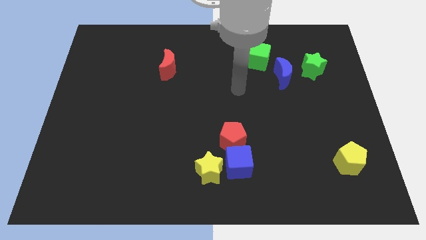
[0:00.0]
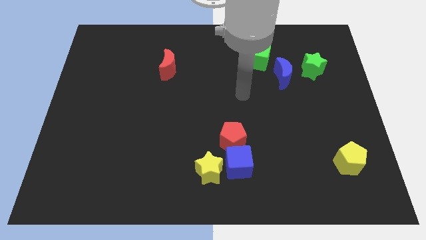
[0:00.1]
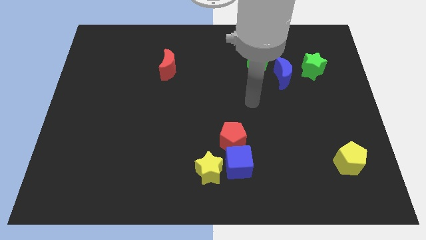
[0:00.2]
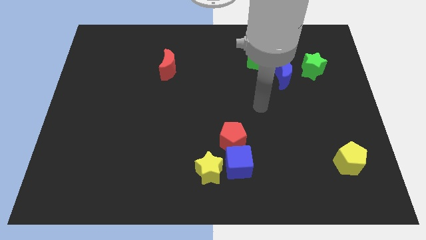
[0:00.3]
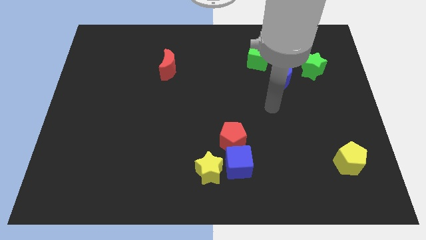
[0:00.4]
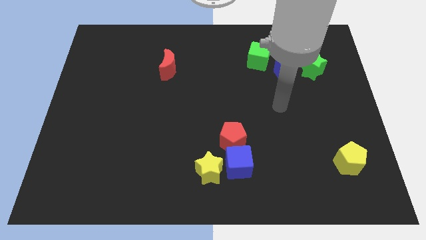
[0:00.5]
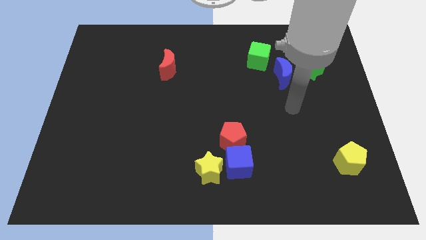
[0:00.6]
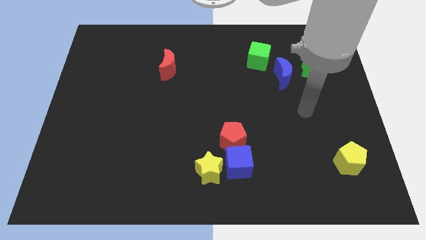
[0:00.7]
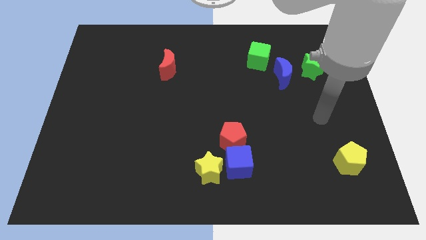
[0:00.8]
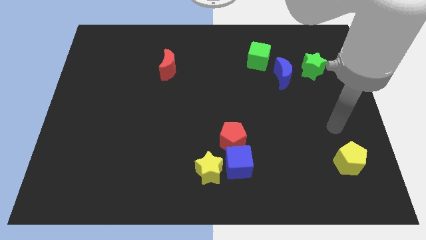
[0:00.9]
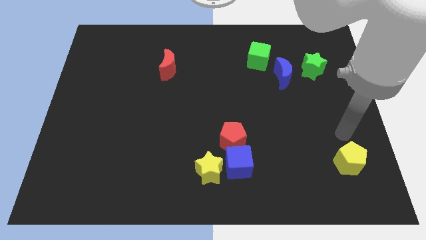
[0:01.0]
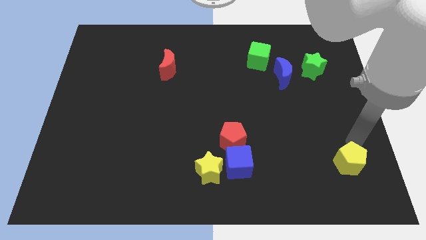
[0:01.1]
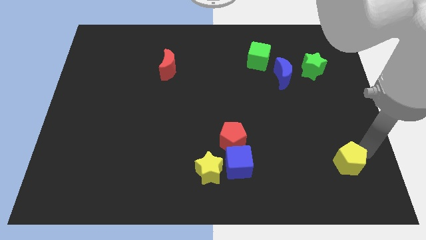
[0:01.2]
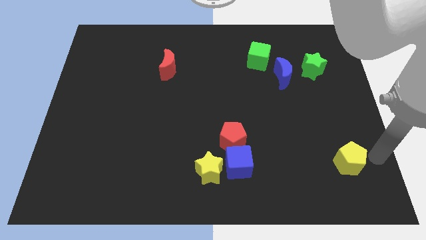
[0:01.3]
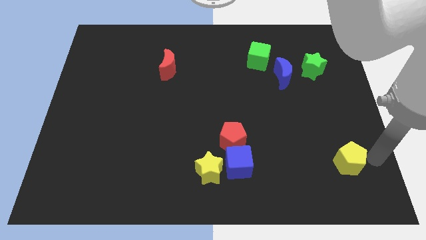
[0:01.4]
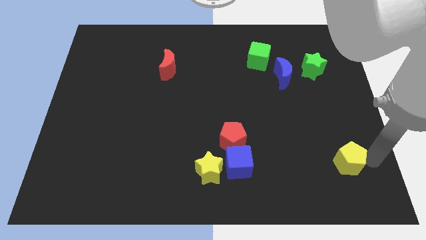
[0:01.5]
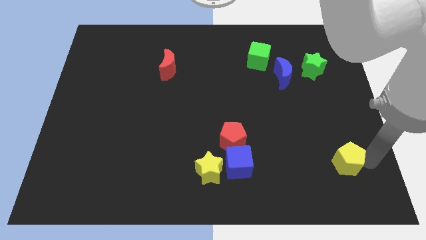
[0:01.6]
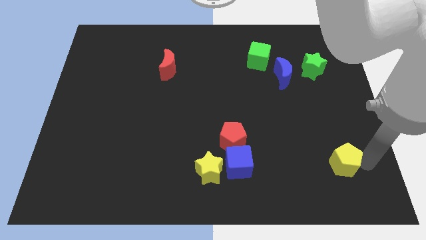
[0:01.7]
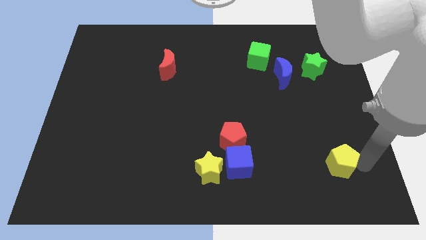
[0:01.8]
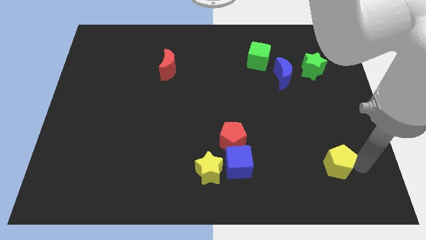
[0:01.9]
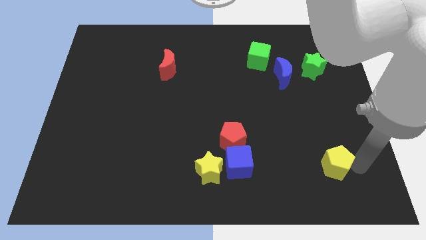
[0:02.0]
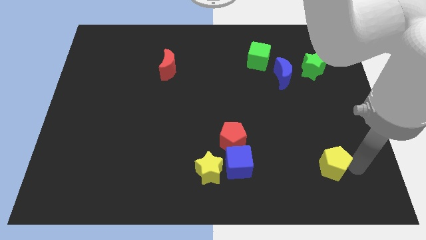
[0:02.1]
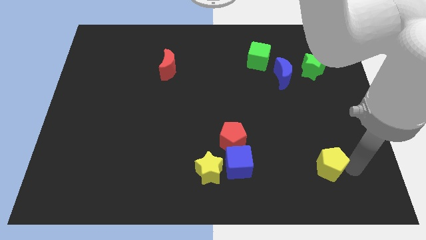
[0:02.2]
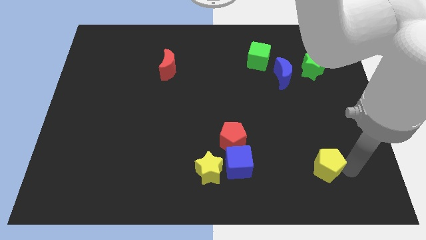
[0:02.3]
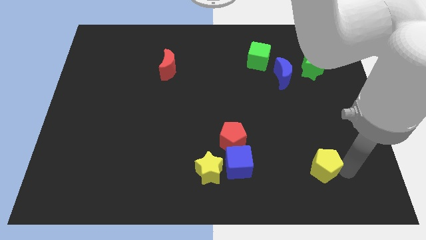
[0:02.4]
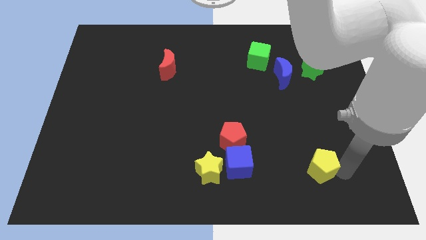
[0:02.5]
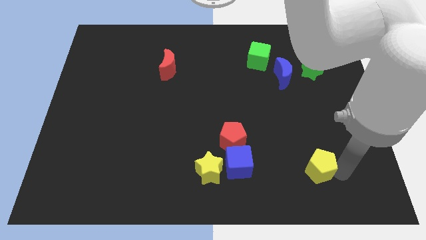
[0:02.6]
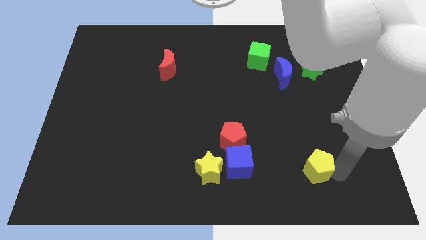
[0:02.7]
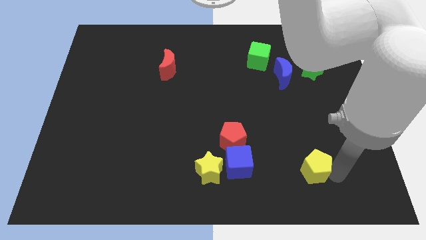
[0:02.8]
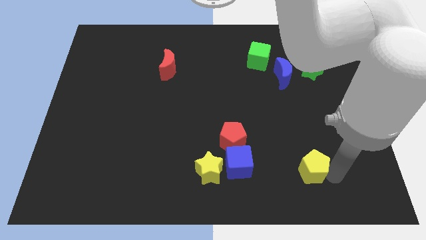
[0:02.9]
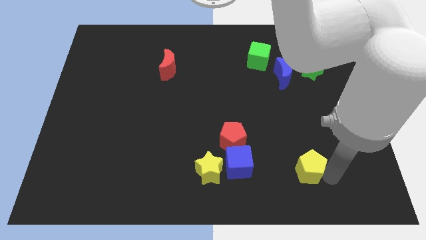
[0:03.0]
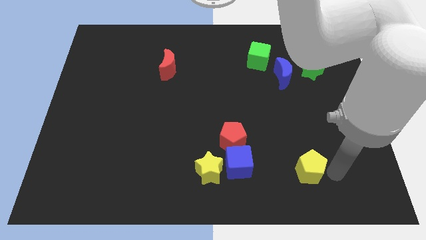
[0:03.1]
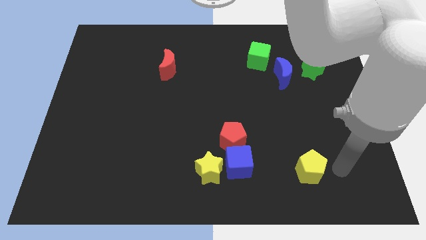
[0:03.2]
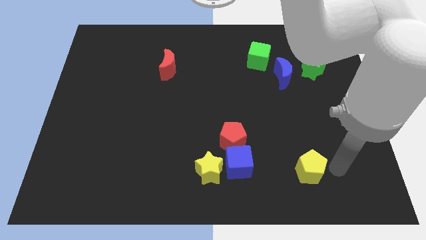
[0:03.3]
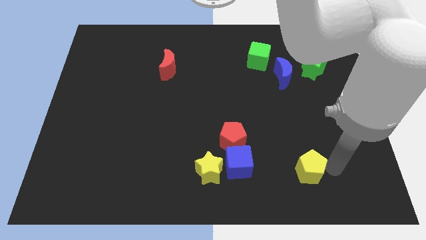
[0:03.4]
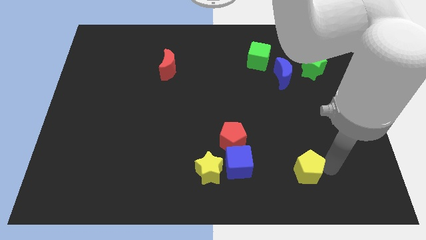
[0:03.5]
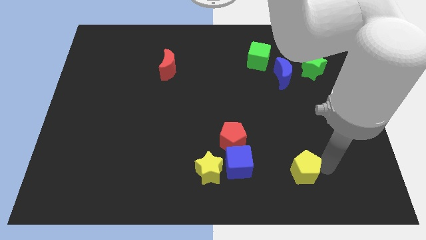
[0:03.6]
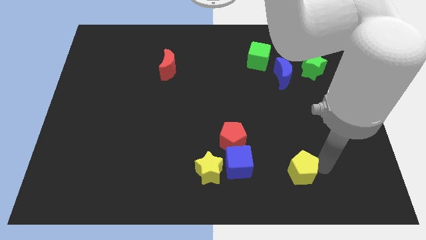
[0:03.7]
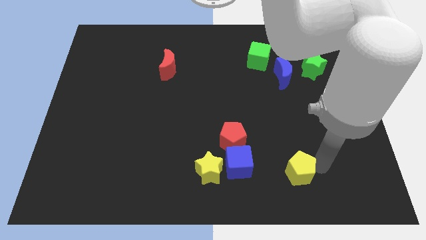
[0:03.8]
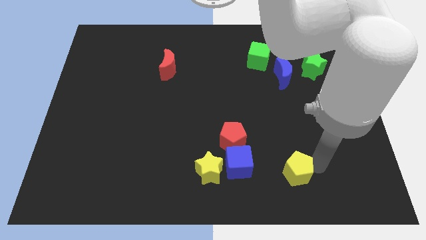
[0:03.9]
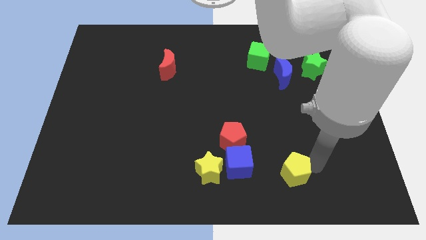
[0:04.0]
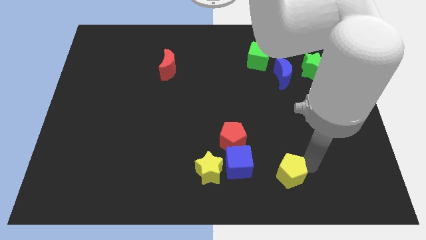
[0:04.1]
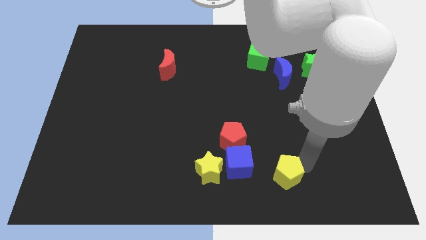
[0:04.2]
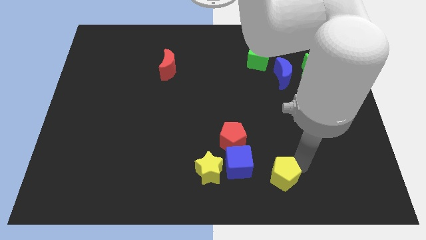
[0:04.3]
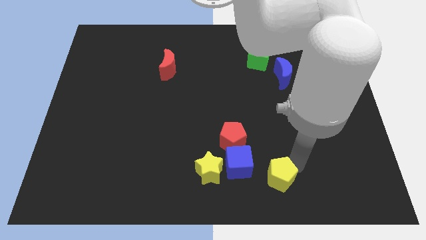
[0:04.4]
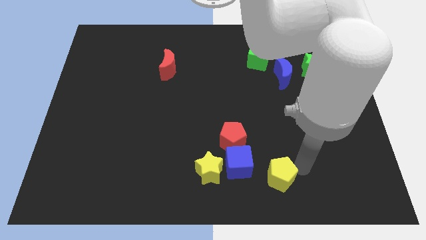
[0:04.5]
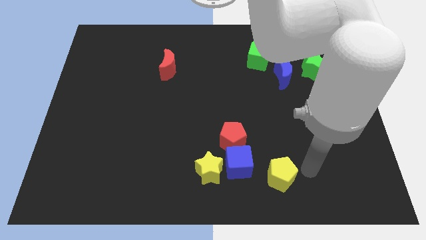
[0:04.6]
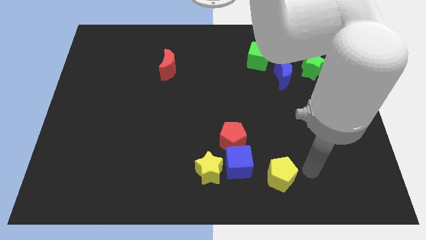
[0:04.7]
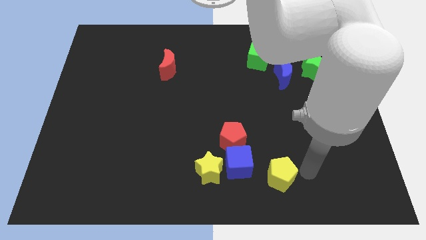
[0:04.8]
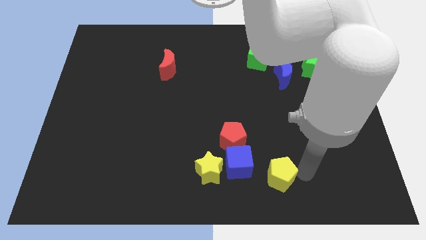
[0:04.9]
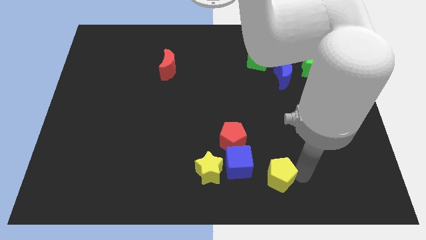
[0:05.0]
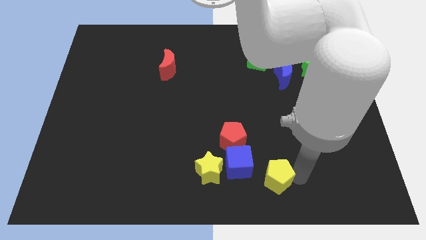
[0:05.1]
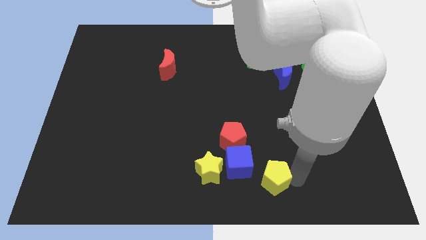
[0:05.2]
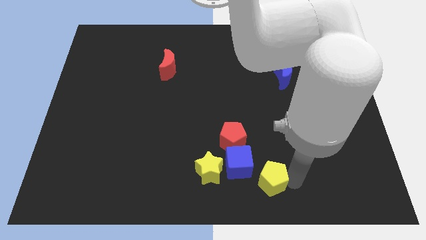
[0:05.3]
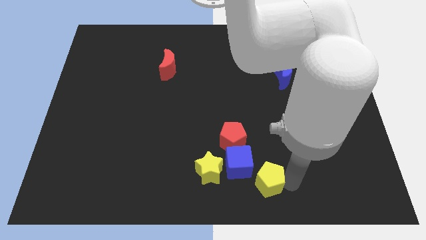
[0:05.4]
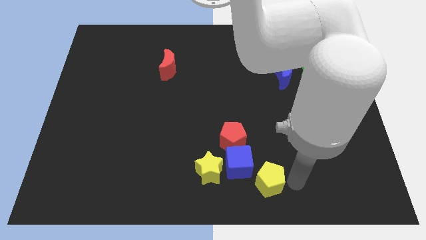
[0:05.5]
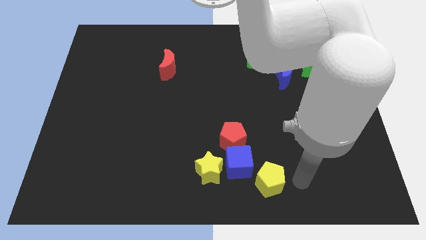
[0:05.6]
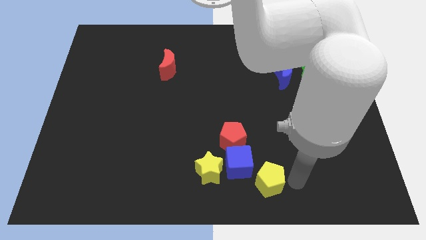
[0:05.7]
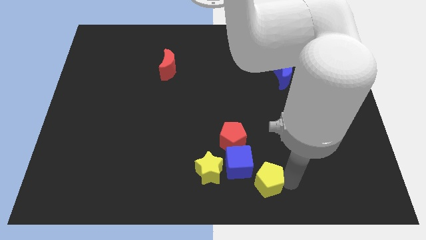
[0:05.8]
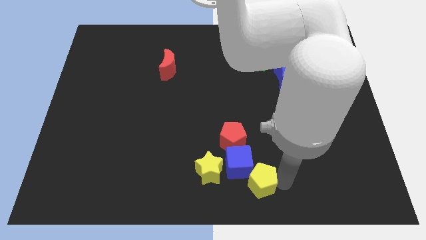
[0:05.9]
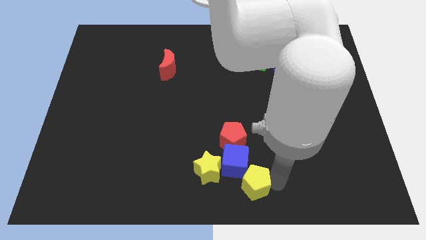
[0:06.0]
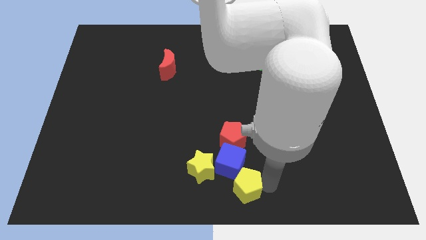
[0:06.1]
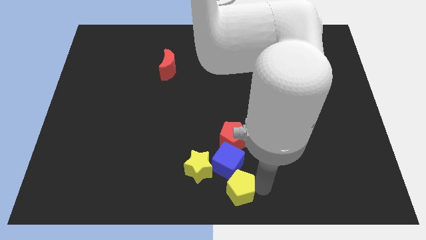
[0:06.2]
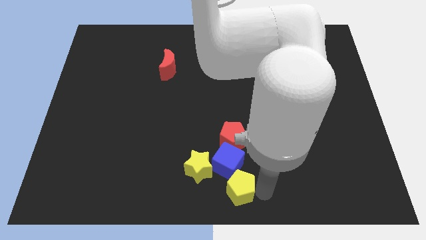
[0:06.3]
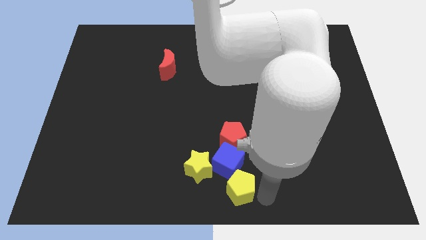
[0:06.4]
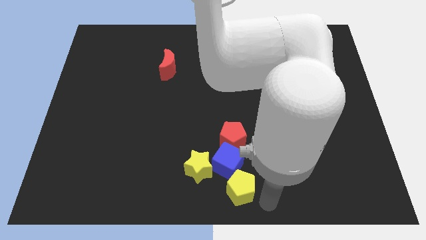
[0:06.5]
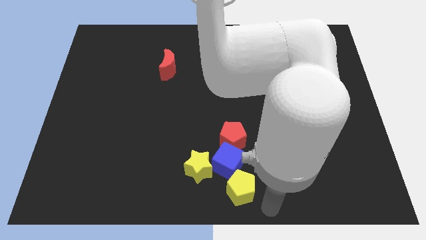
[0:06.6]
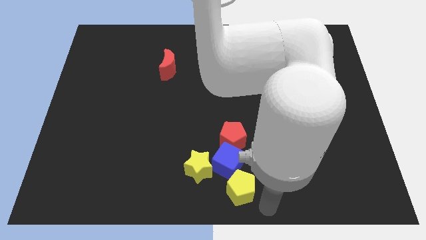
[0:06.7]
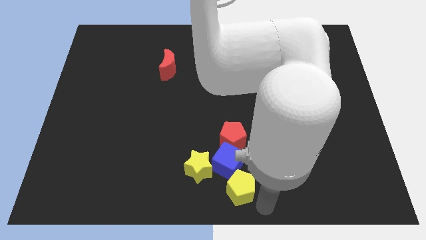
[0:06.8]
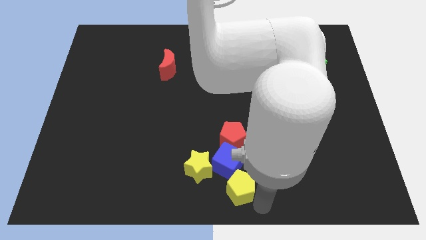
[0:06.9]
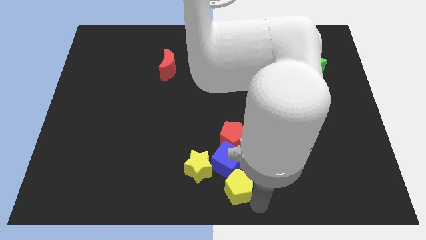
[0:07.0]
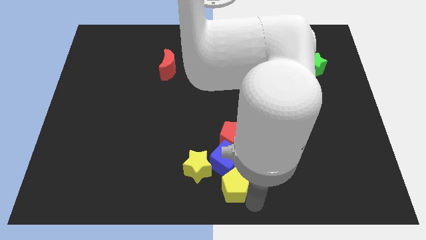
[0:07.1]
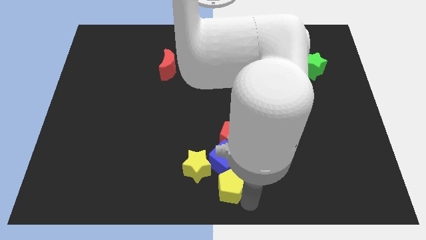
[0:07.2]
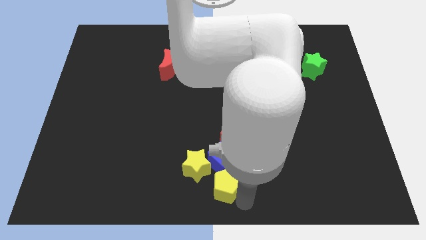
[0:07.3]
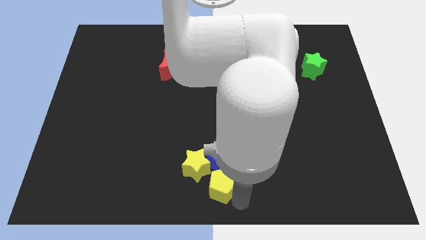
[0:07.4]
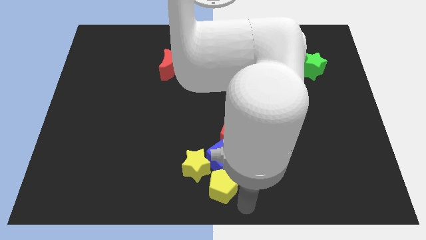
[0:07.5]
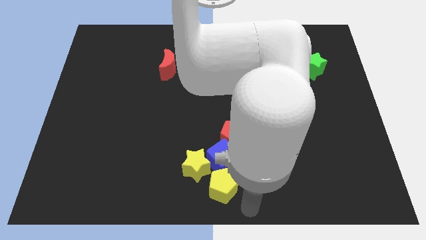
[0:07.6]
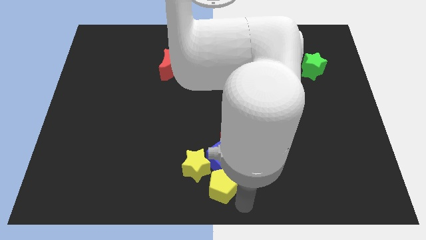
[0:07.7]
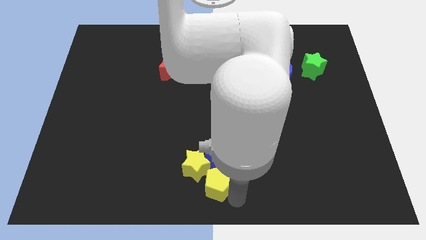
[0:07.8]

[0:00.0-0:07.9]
slide the yellow pentagon close to the yellow star
